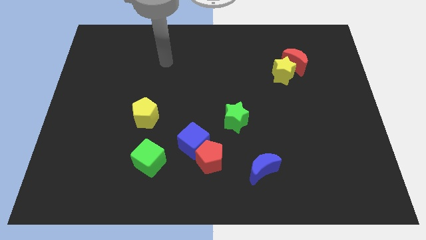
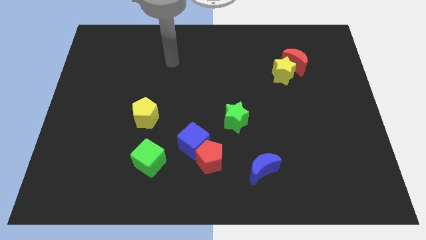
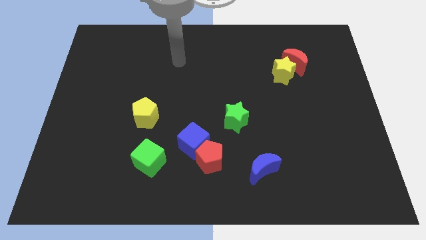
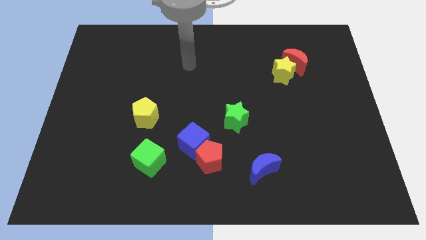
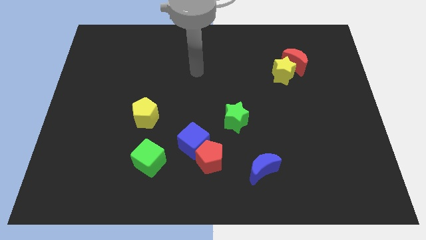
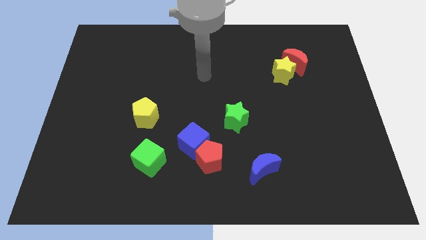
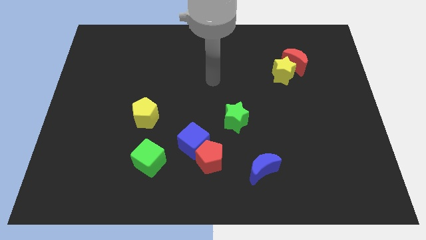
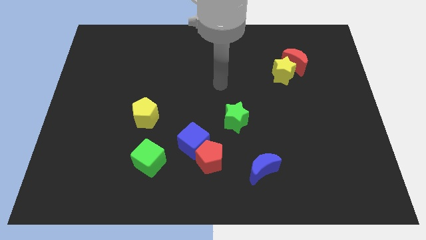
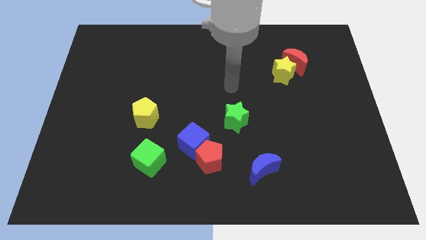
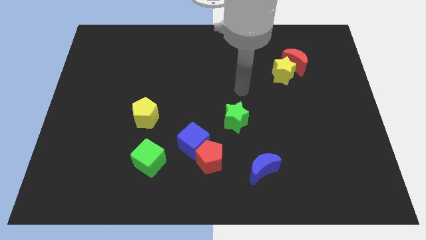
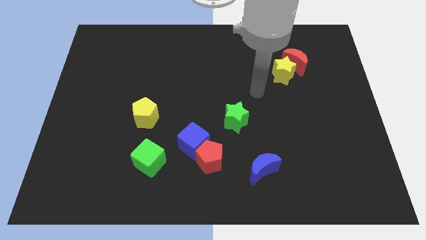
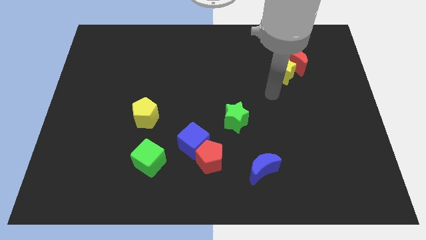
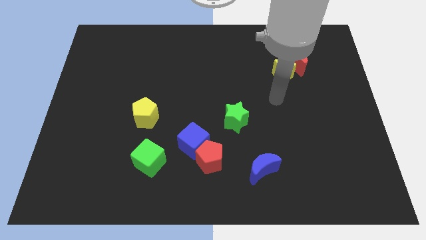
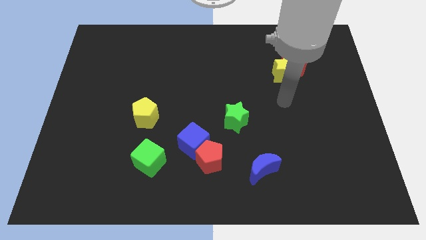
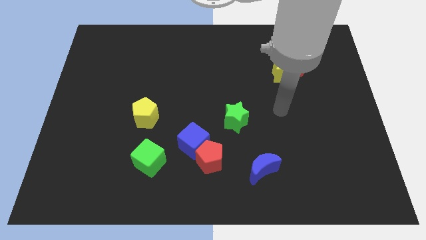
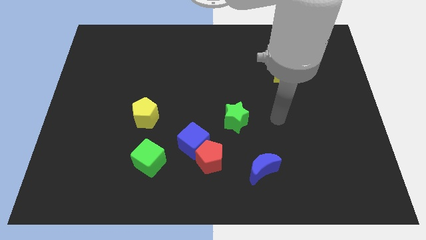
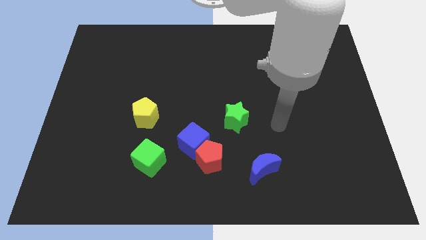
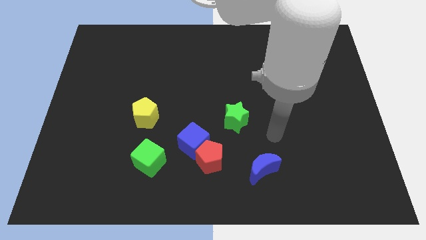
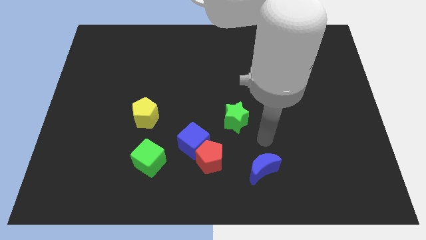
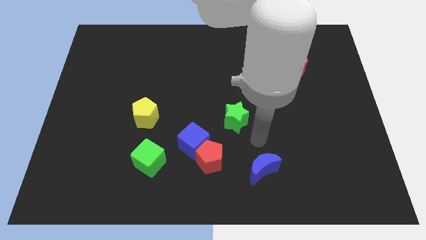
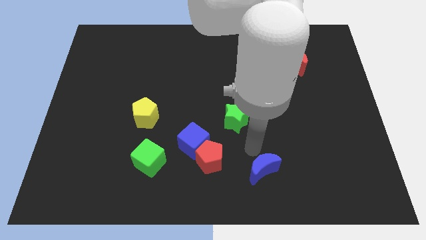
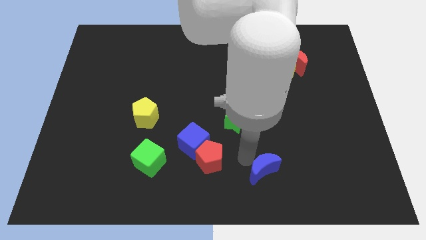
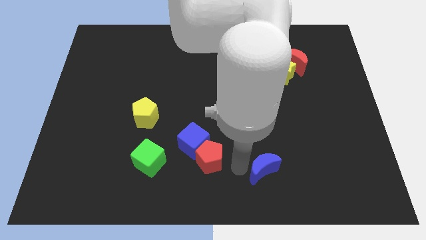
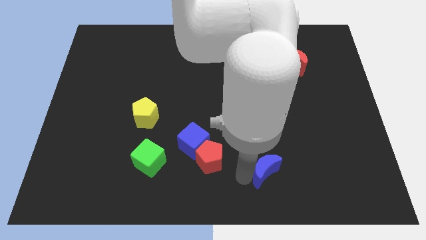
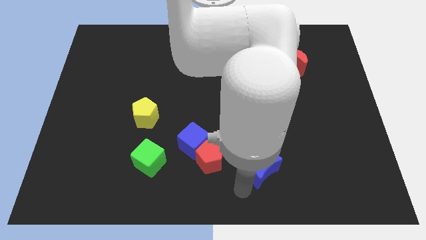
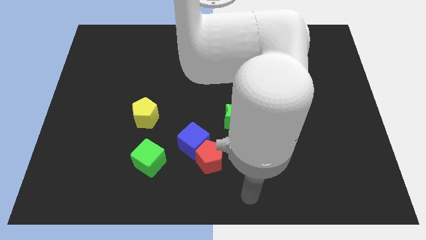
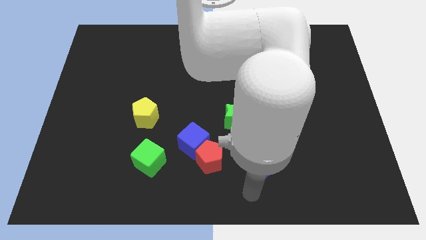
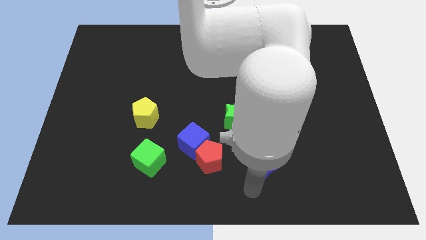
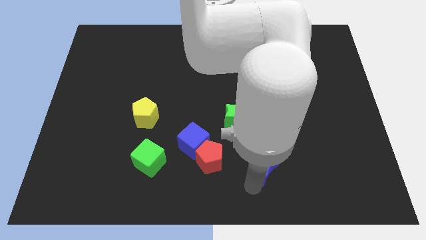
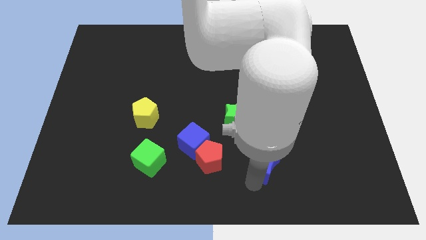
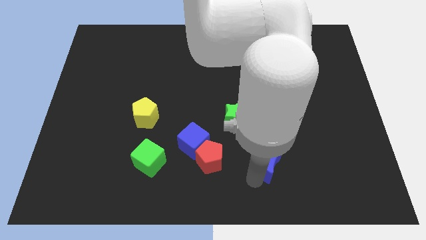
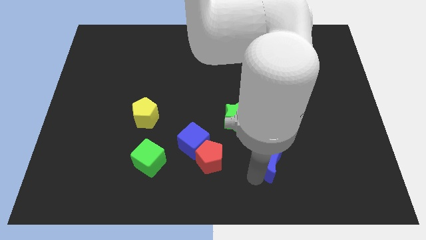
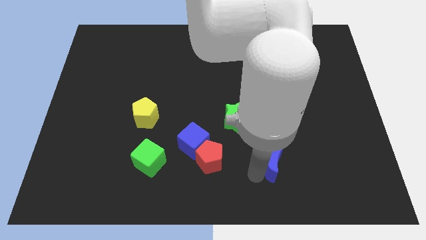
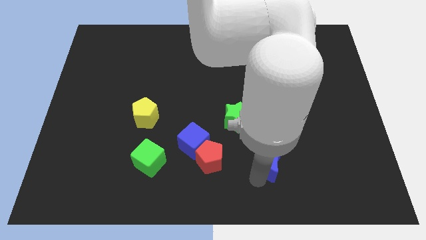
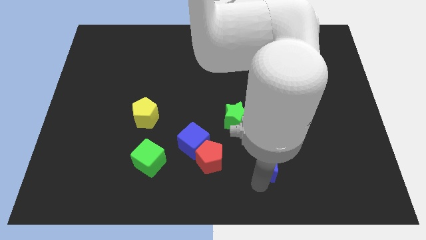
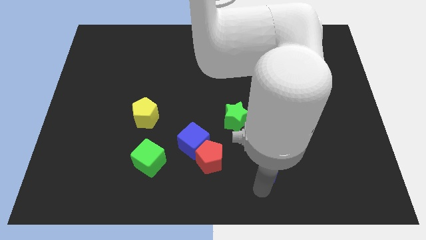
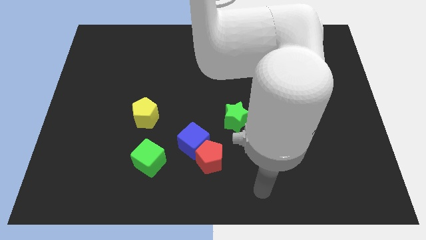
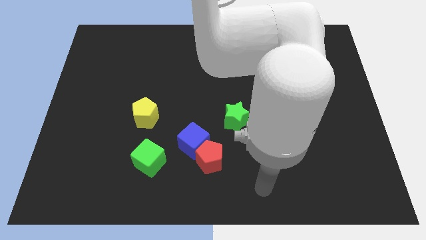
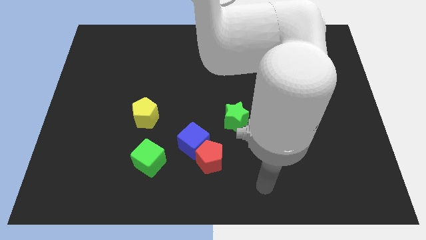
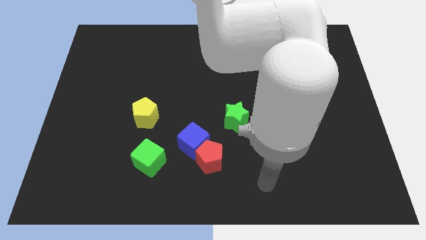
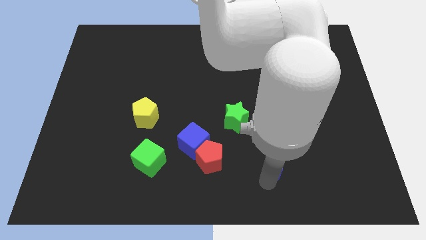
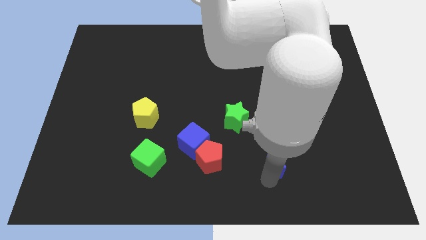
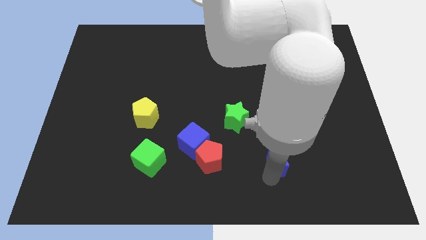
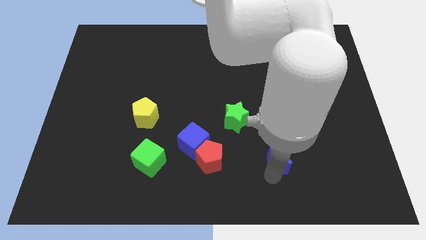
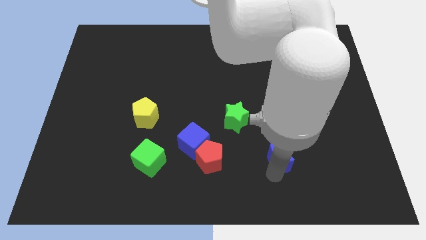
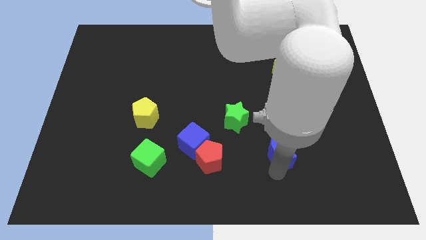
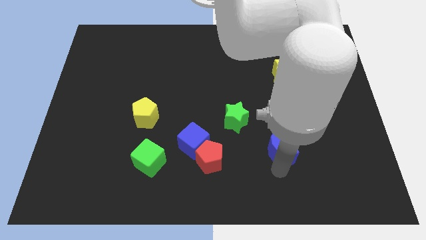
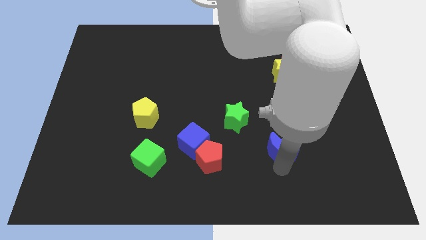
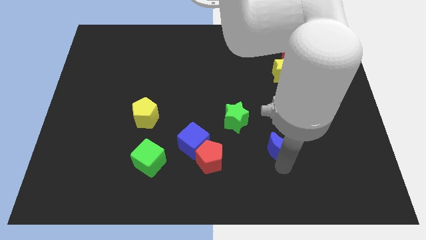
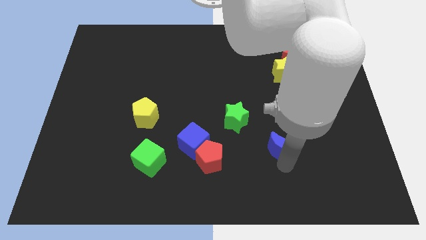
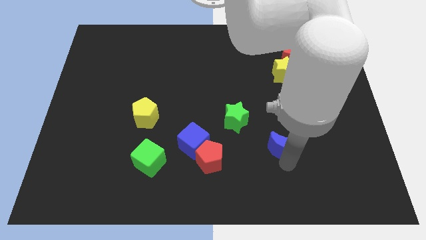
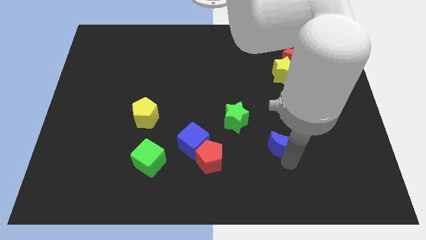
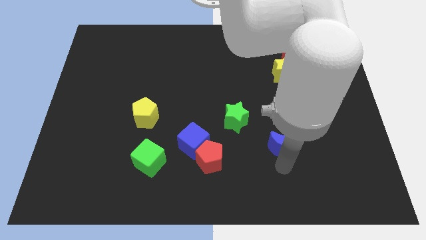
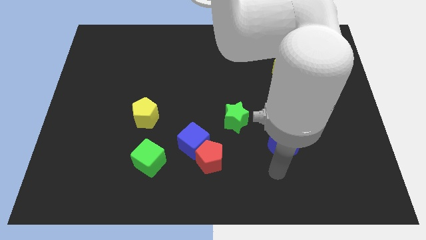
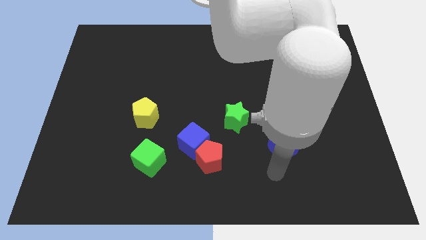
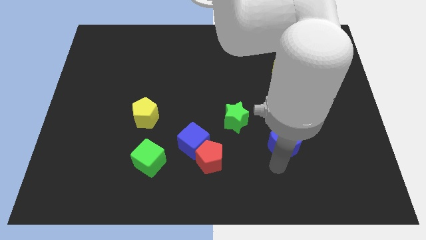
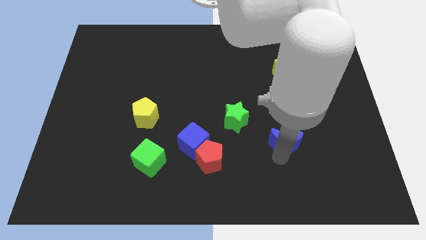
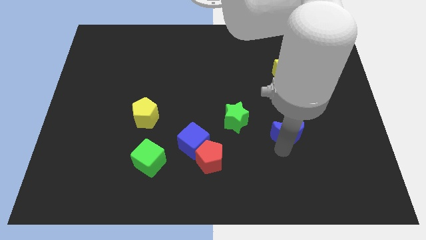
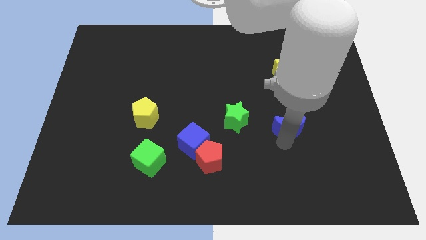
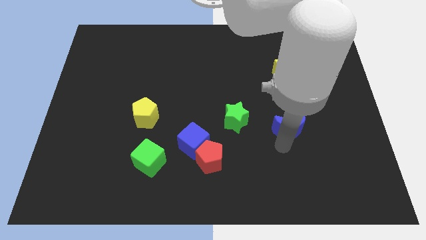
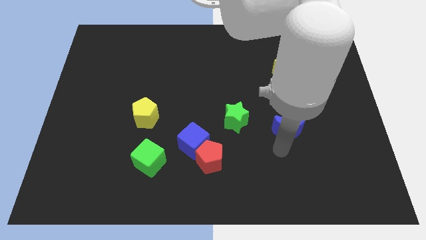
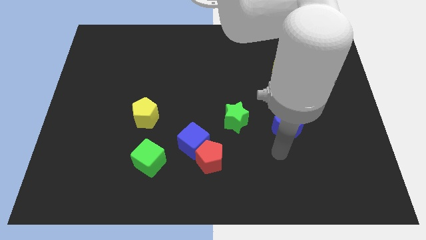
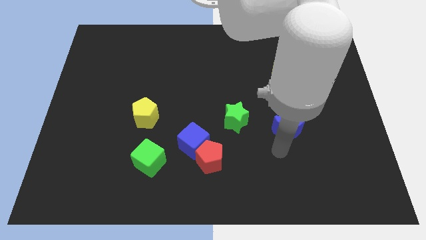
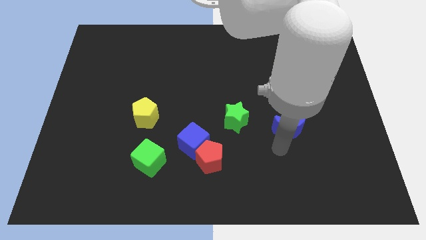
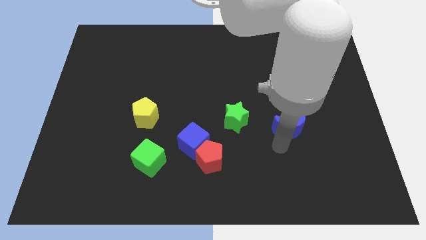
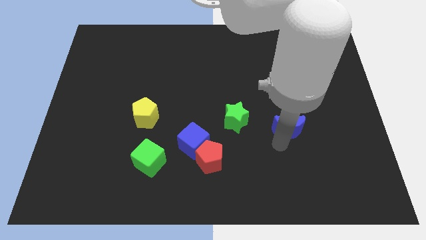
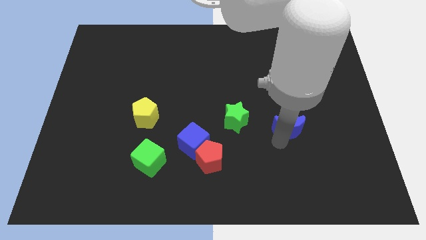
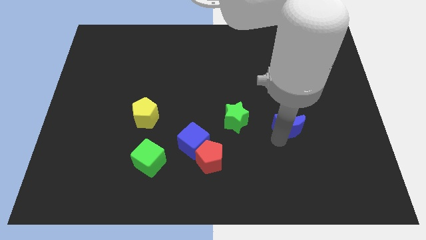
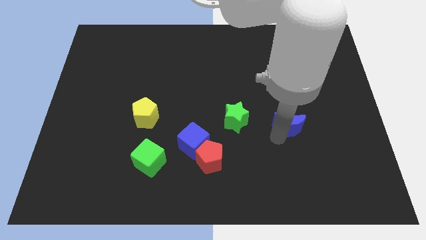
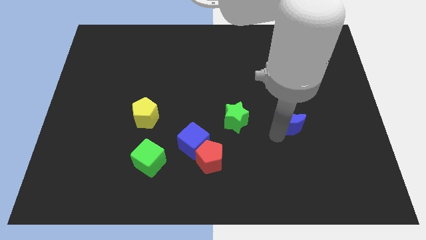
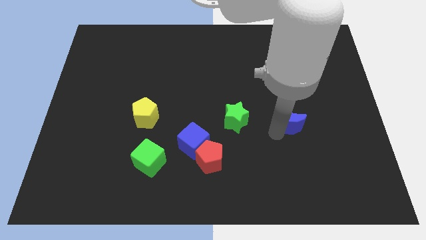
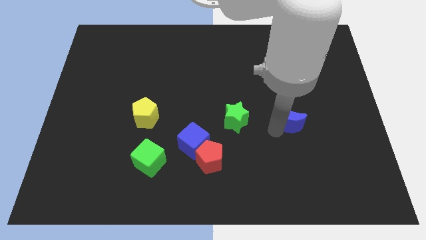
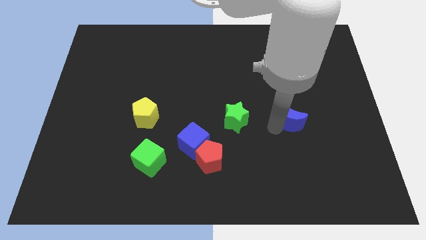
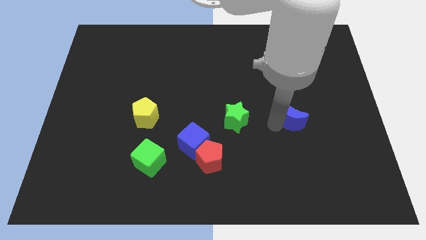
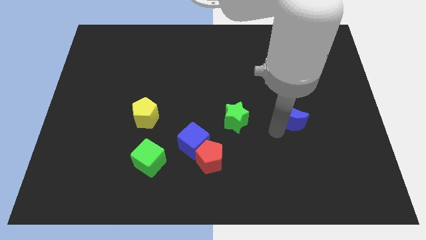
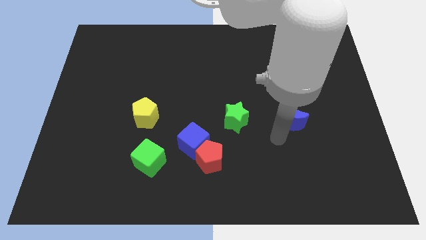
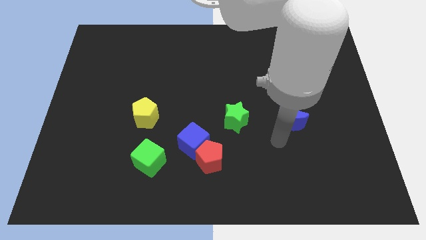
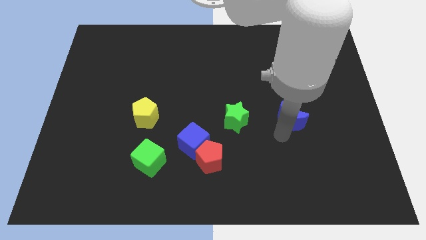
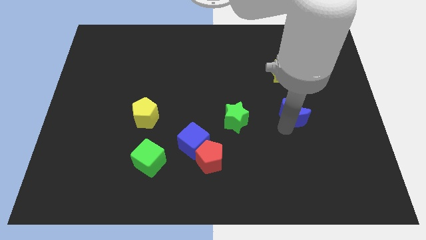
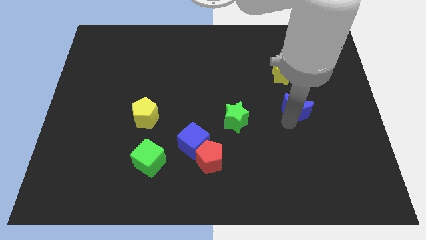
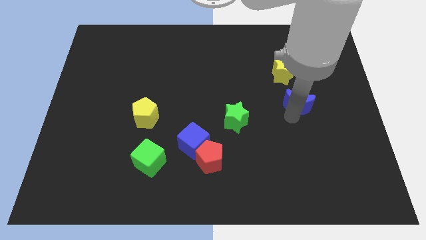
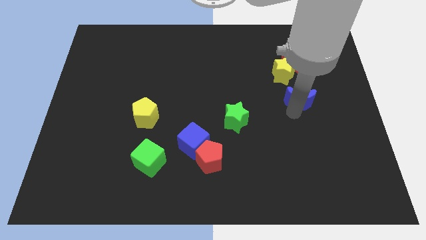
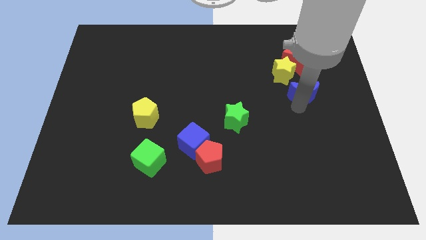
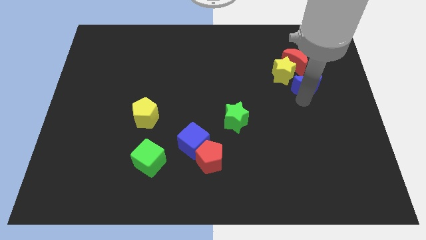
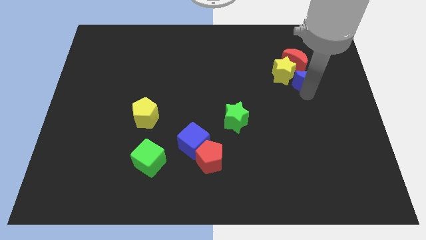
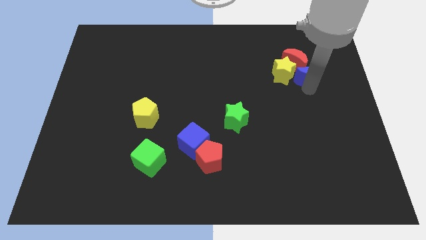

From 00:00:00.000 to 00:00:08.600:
slide the blue moon close to the red moon
